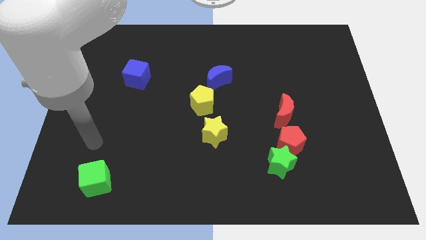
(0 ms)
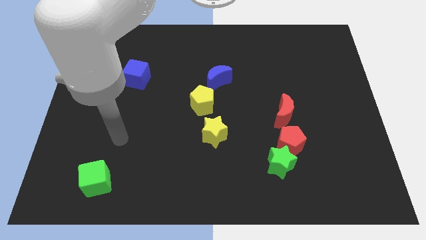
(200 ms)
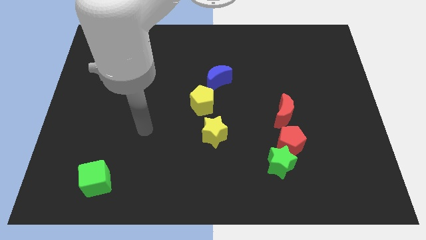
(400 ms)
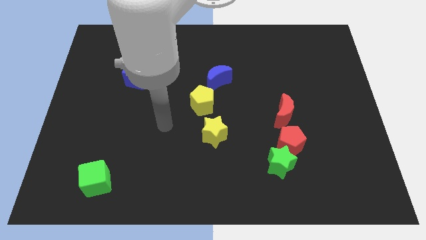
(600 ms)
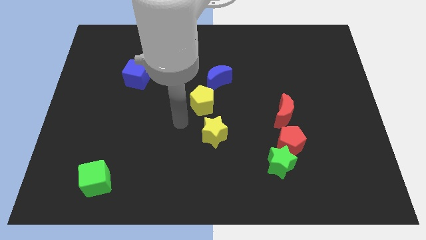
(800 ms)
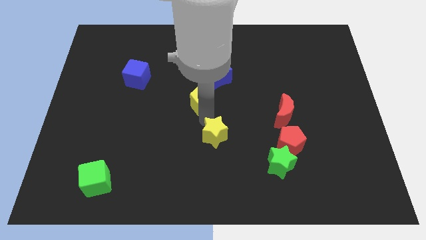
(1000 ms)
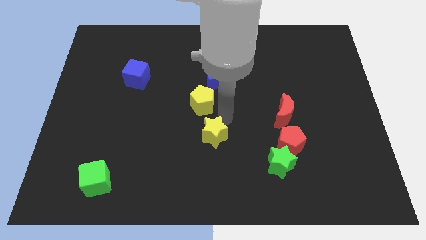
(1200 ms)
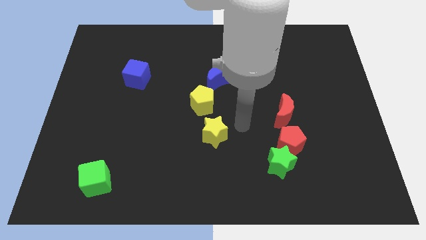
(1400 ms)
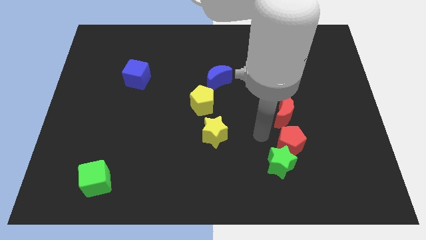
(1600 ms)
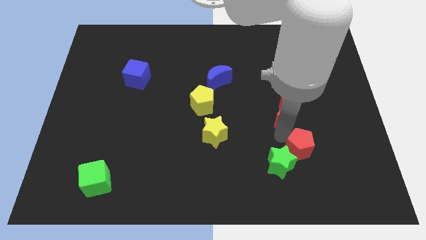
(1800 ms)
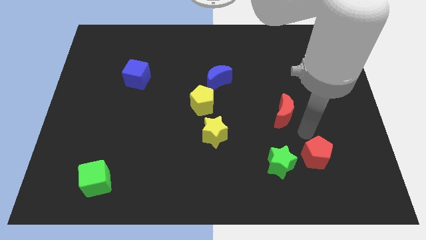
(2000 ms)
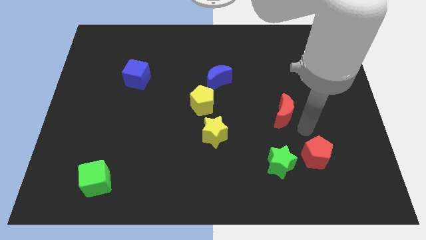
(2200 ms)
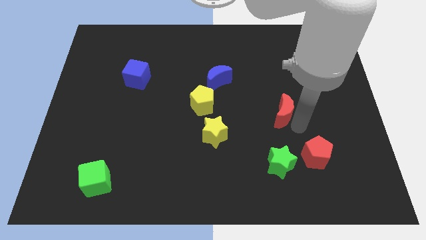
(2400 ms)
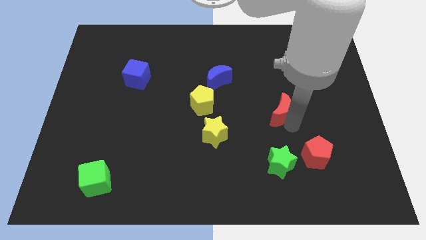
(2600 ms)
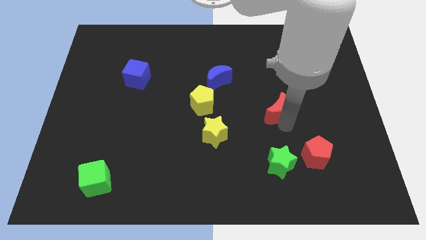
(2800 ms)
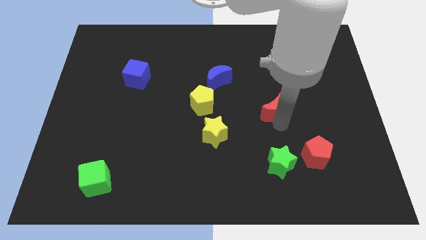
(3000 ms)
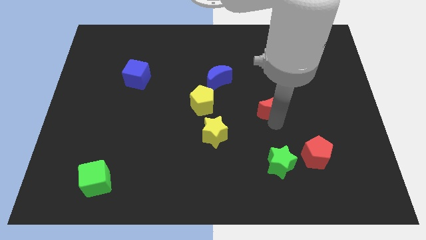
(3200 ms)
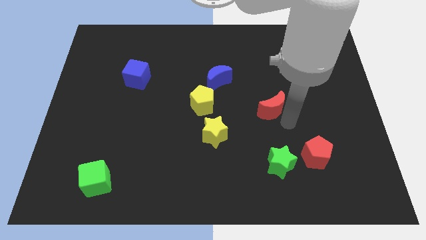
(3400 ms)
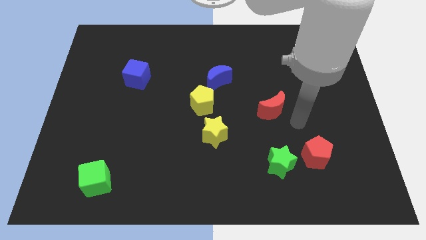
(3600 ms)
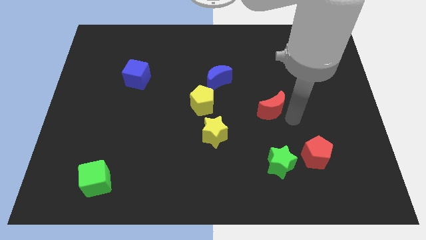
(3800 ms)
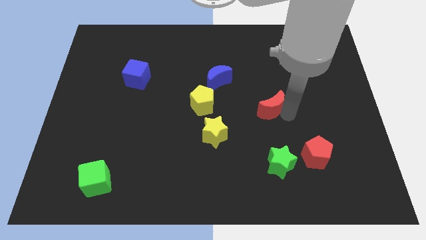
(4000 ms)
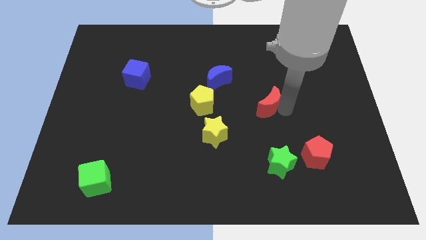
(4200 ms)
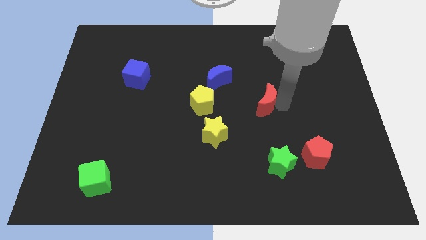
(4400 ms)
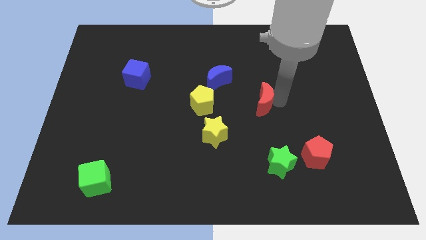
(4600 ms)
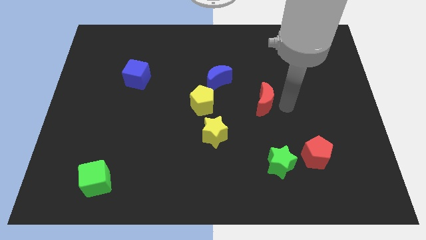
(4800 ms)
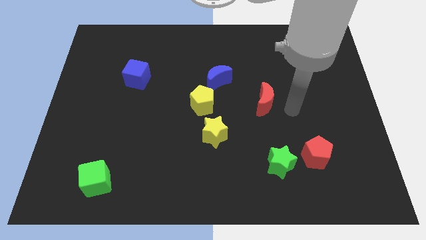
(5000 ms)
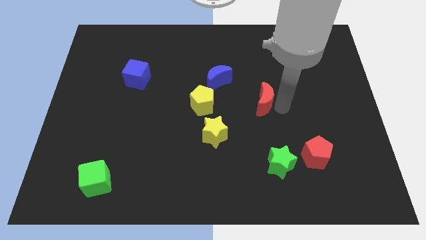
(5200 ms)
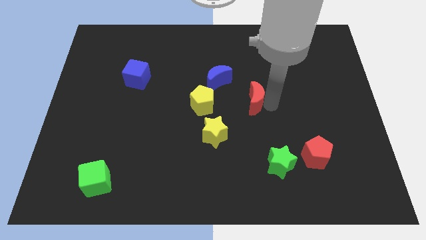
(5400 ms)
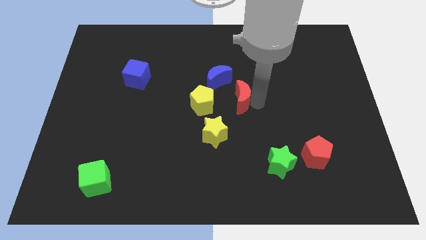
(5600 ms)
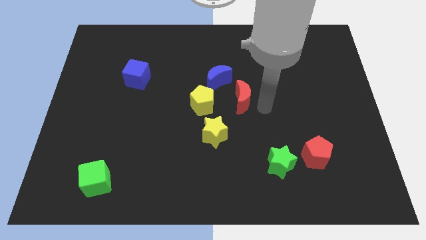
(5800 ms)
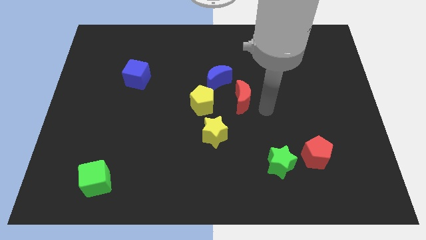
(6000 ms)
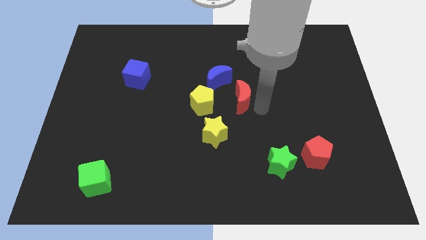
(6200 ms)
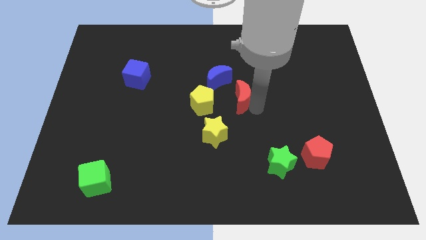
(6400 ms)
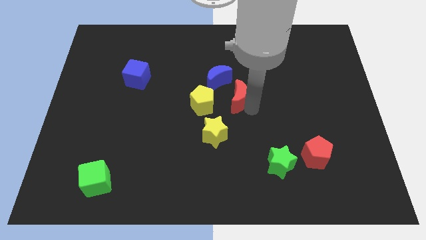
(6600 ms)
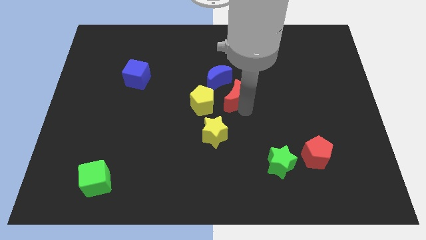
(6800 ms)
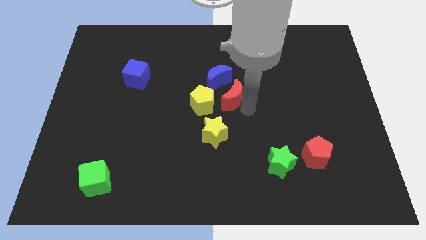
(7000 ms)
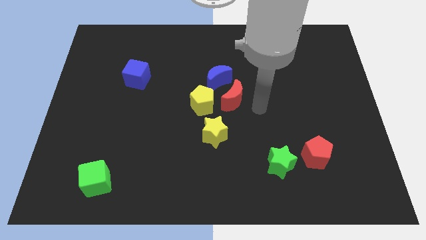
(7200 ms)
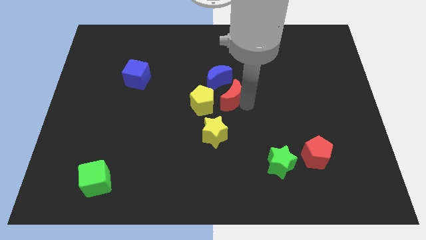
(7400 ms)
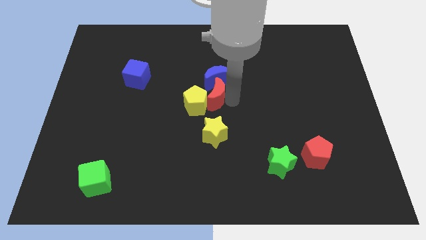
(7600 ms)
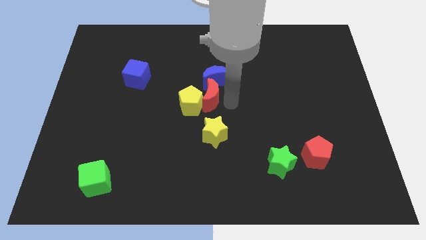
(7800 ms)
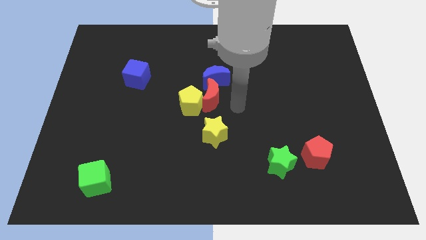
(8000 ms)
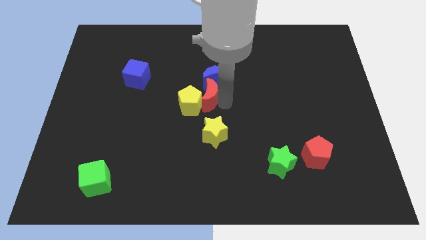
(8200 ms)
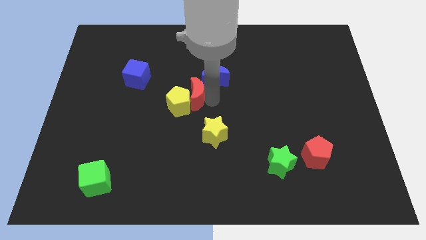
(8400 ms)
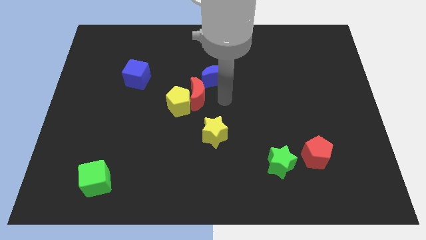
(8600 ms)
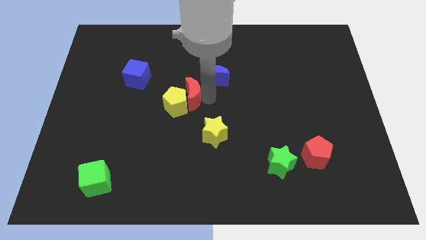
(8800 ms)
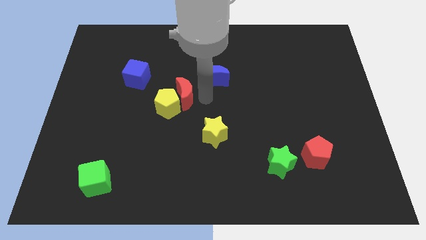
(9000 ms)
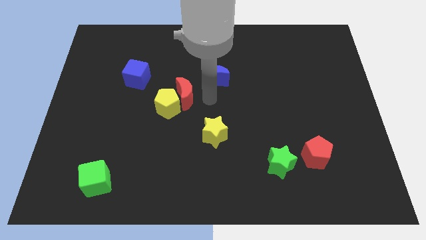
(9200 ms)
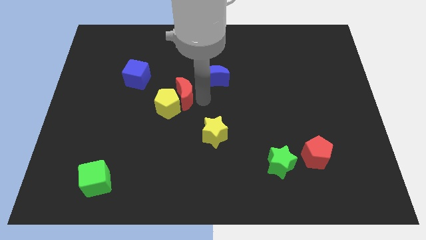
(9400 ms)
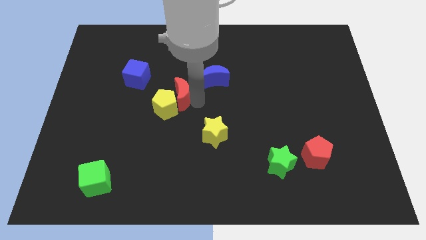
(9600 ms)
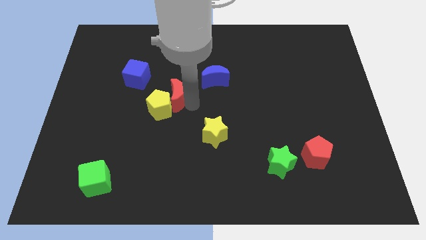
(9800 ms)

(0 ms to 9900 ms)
slide the red moon diagonally down and to the right of the blue cube

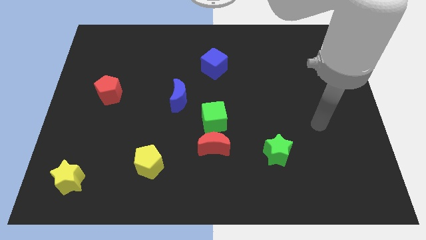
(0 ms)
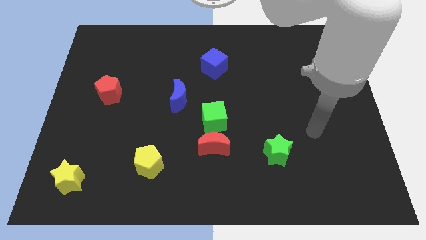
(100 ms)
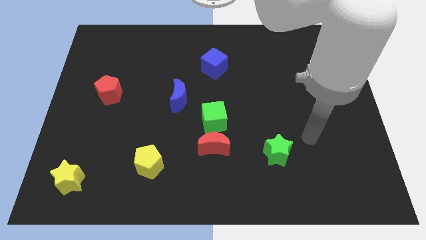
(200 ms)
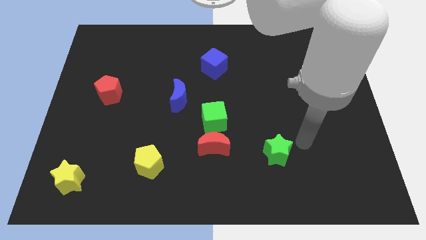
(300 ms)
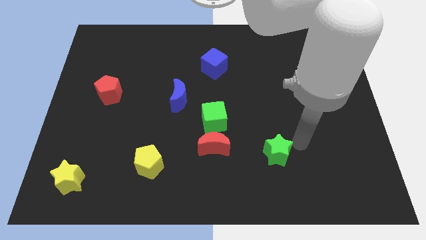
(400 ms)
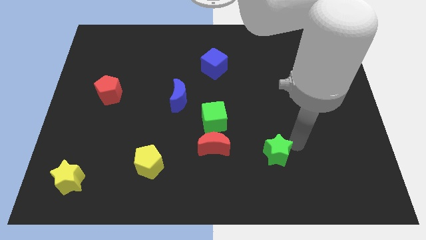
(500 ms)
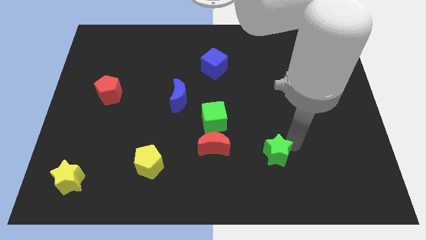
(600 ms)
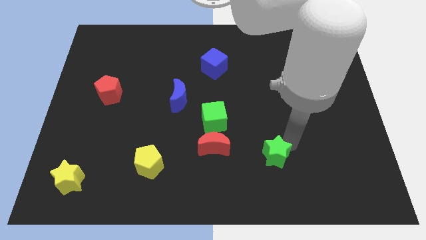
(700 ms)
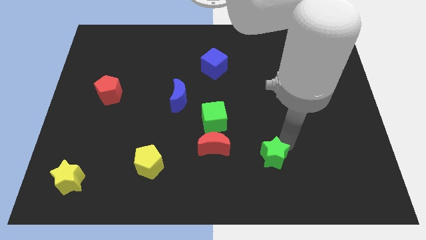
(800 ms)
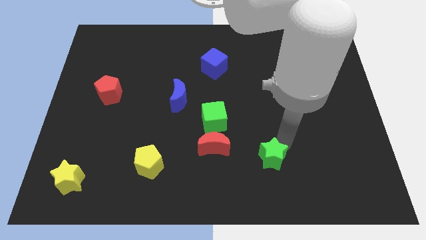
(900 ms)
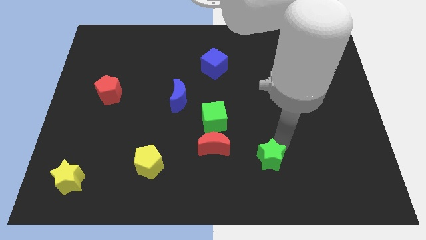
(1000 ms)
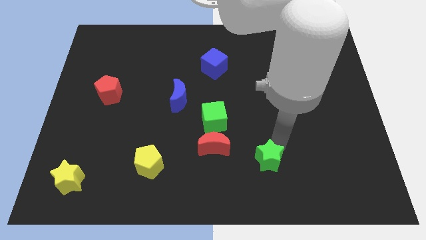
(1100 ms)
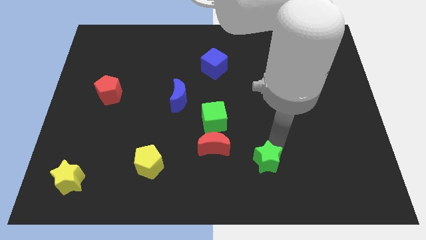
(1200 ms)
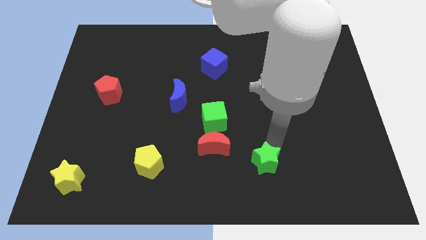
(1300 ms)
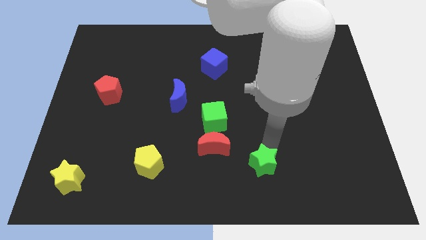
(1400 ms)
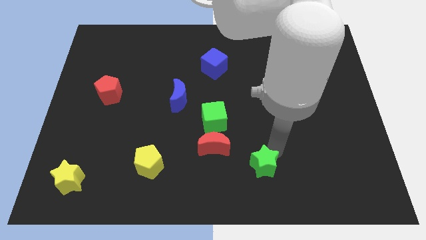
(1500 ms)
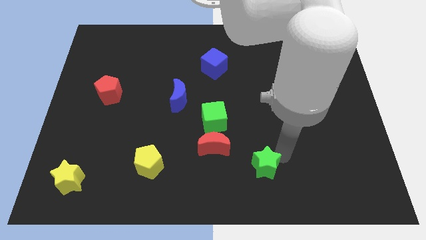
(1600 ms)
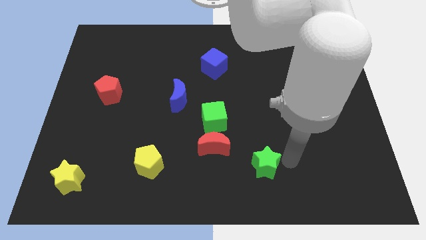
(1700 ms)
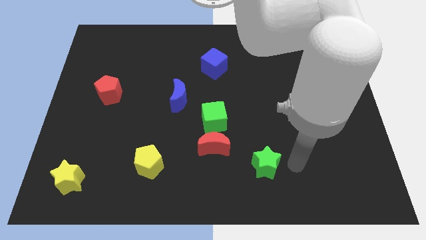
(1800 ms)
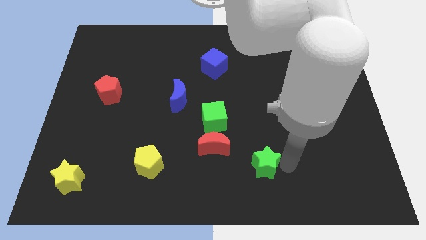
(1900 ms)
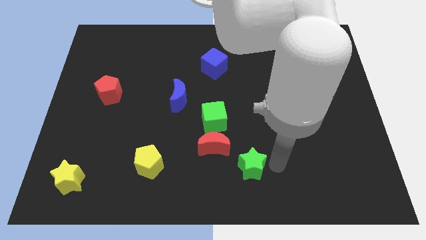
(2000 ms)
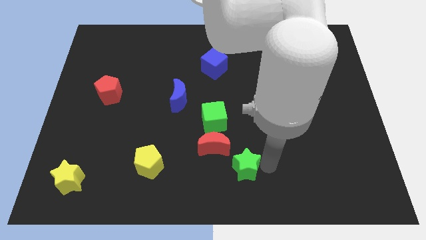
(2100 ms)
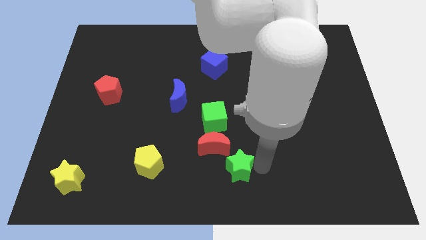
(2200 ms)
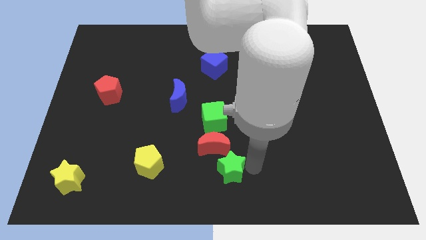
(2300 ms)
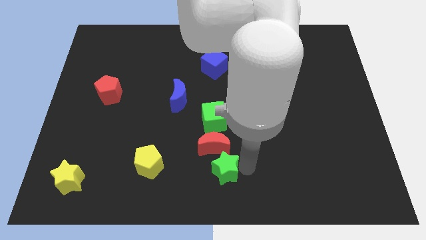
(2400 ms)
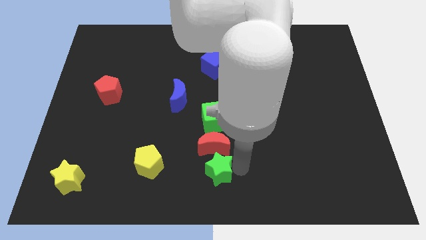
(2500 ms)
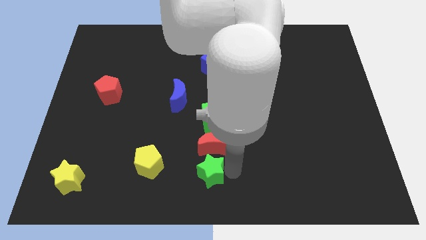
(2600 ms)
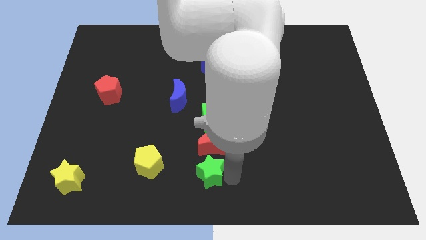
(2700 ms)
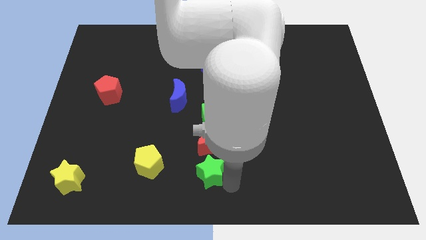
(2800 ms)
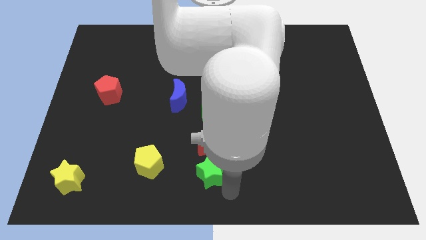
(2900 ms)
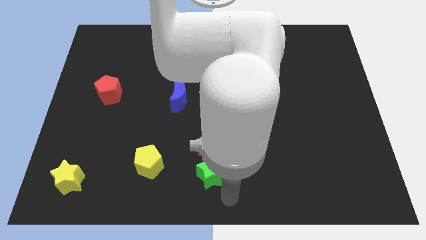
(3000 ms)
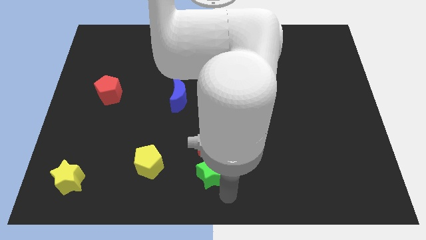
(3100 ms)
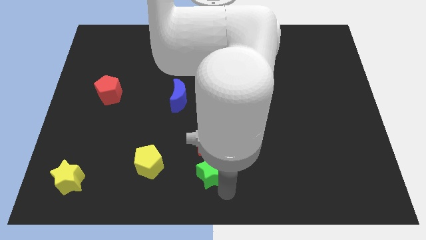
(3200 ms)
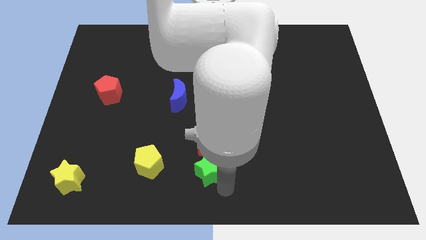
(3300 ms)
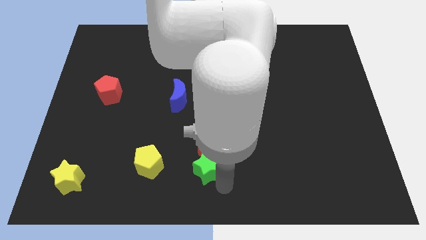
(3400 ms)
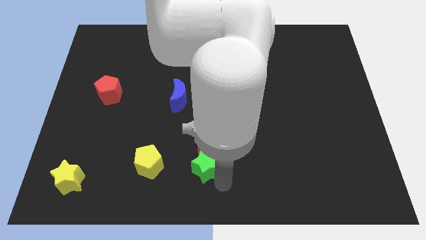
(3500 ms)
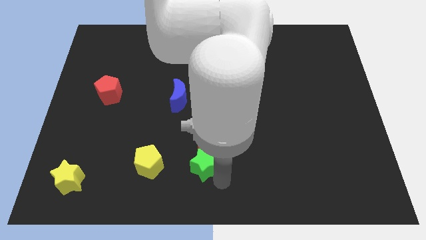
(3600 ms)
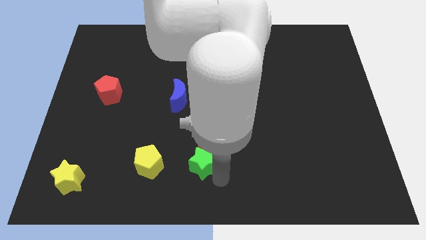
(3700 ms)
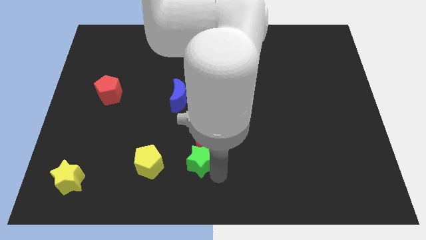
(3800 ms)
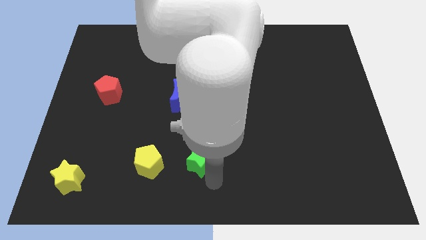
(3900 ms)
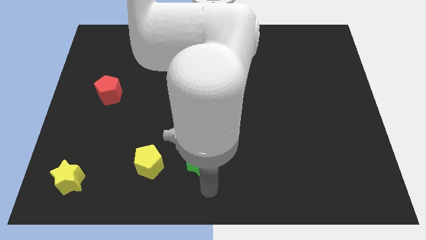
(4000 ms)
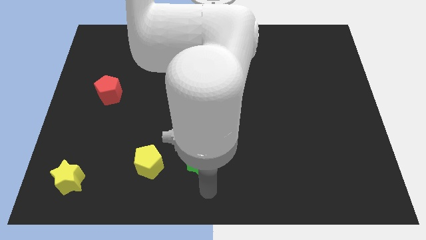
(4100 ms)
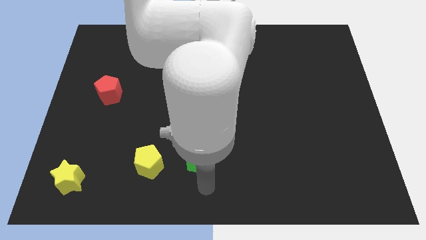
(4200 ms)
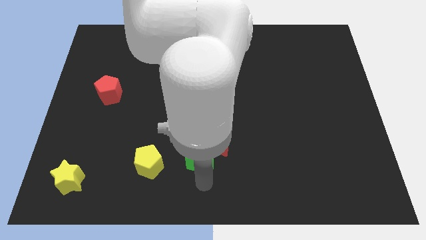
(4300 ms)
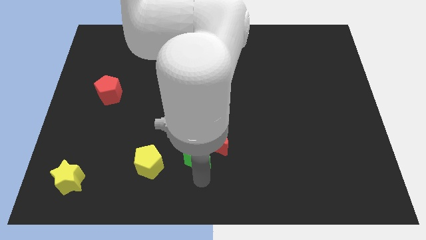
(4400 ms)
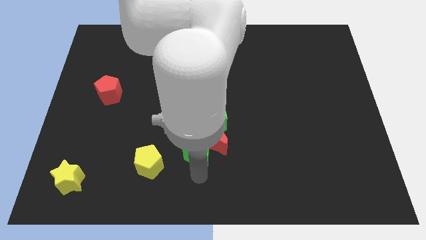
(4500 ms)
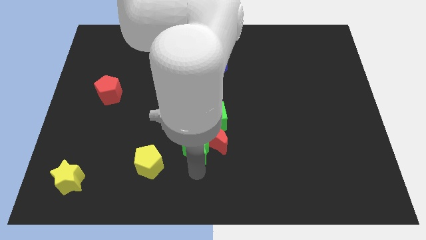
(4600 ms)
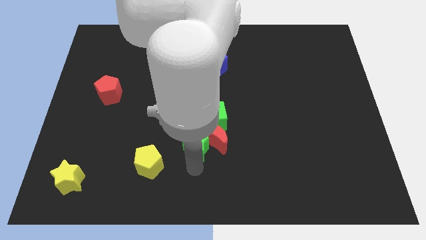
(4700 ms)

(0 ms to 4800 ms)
push the green star to the top left of the red moon
